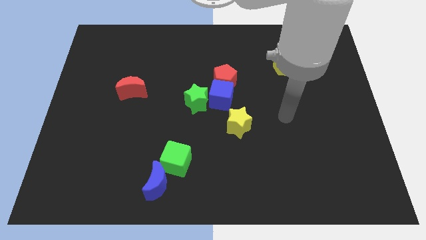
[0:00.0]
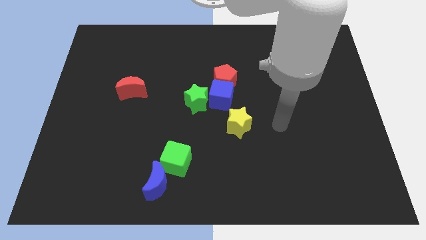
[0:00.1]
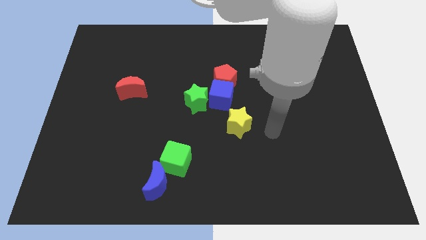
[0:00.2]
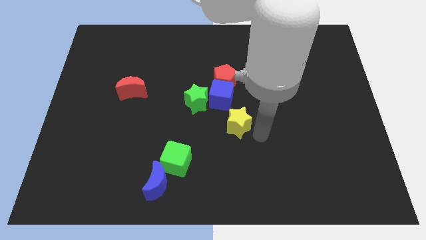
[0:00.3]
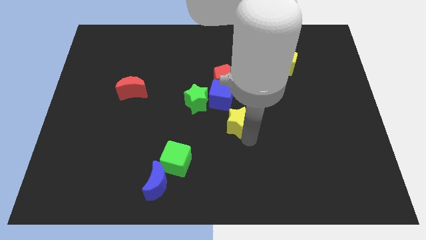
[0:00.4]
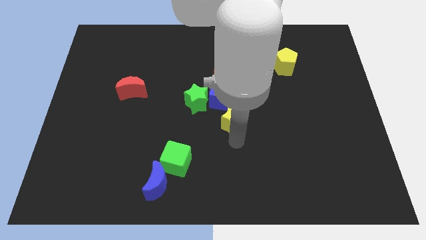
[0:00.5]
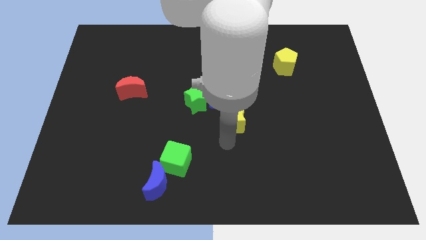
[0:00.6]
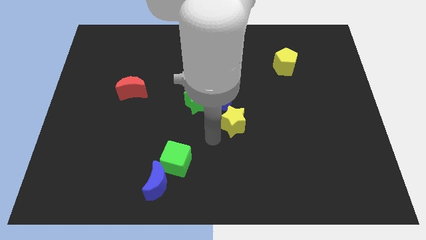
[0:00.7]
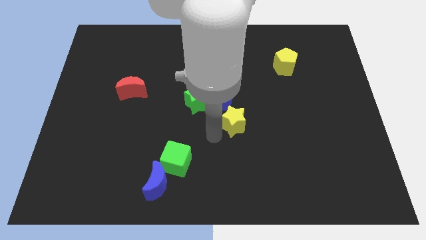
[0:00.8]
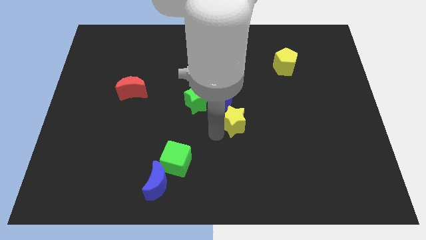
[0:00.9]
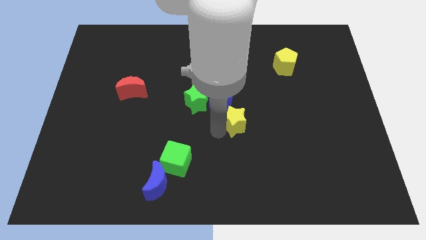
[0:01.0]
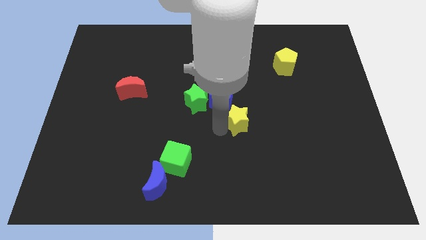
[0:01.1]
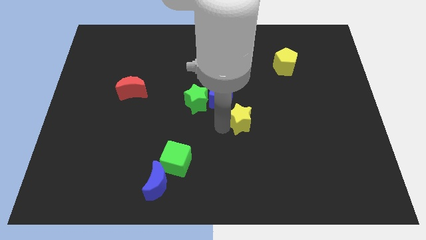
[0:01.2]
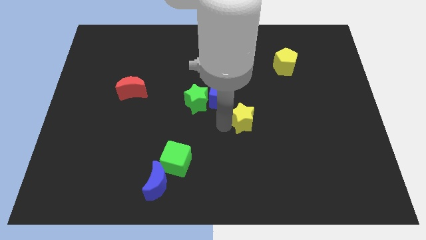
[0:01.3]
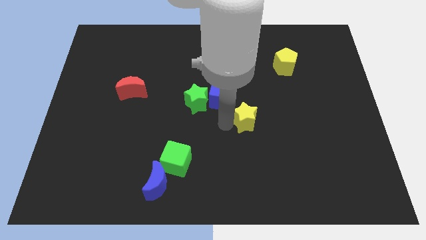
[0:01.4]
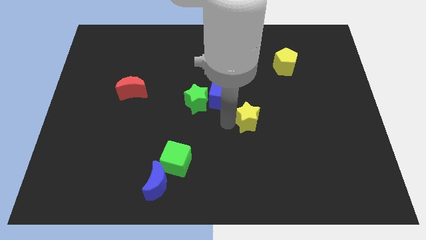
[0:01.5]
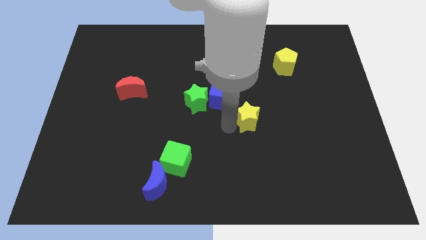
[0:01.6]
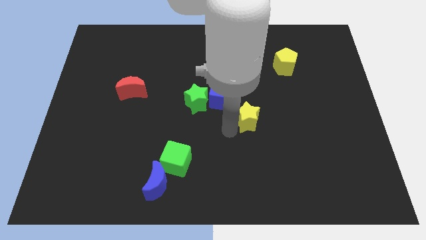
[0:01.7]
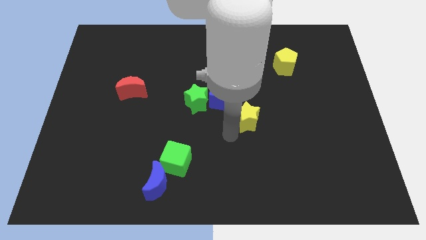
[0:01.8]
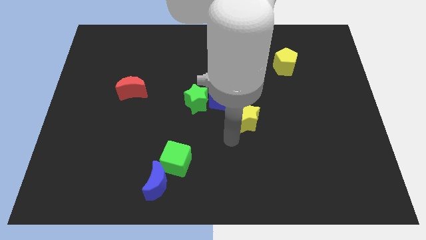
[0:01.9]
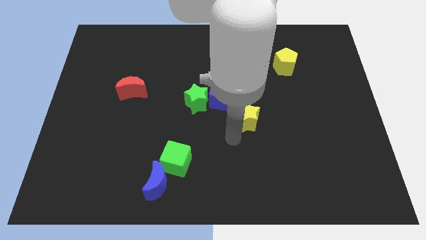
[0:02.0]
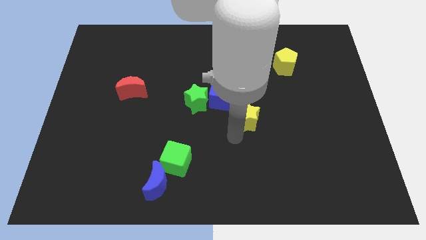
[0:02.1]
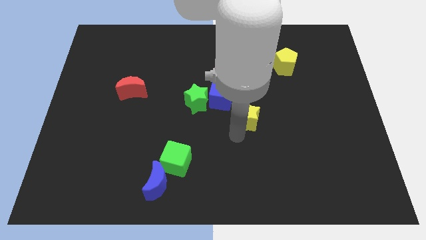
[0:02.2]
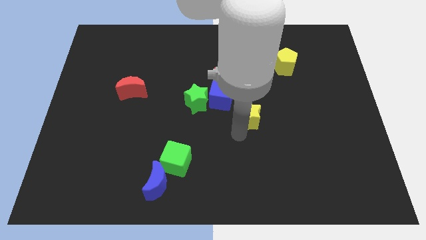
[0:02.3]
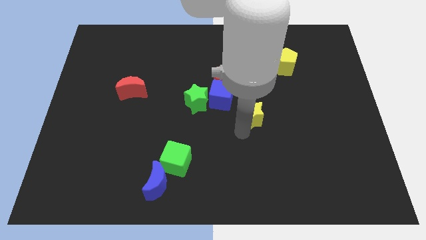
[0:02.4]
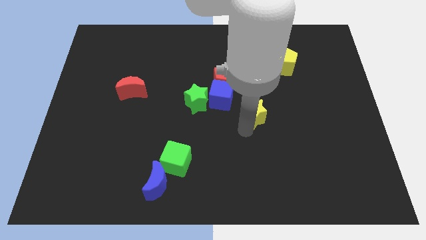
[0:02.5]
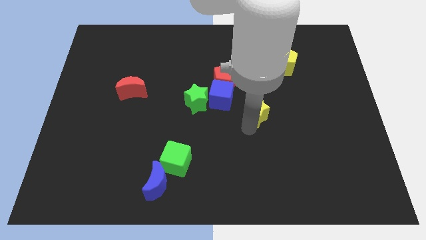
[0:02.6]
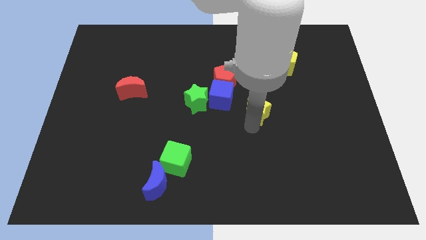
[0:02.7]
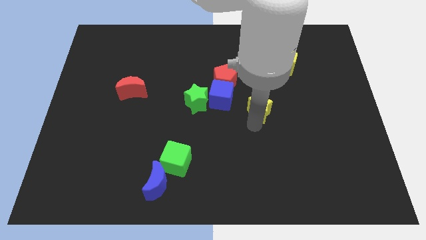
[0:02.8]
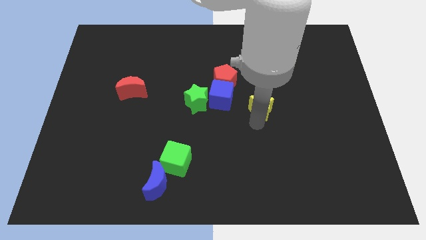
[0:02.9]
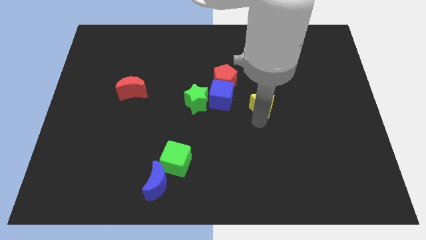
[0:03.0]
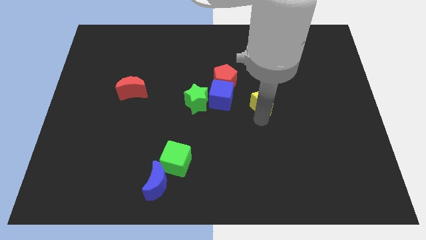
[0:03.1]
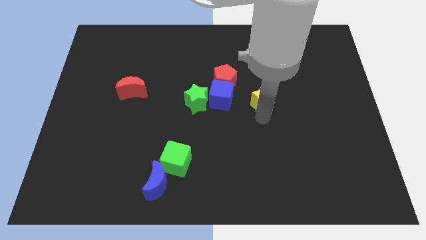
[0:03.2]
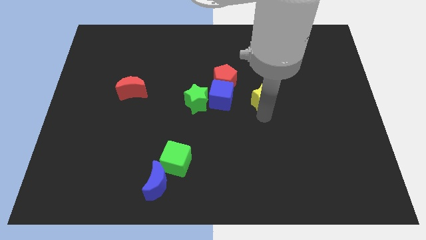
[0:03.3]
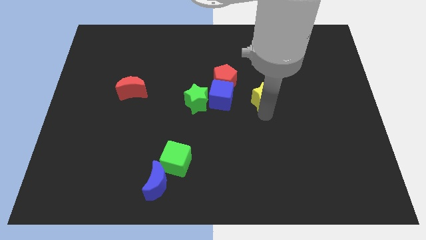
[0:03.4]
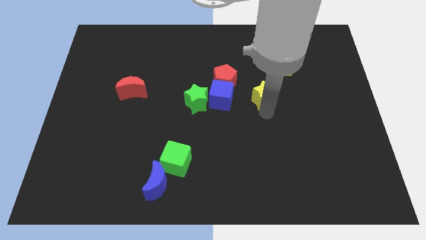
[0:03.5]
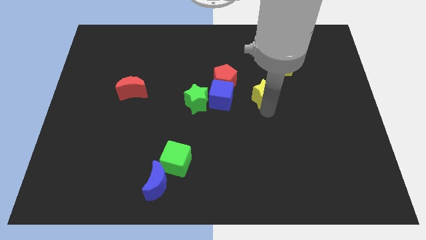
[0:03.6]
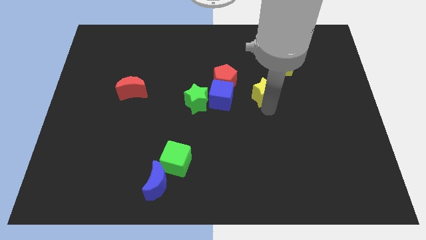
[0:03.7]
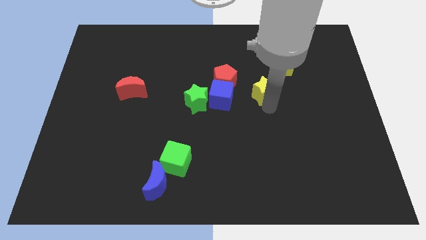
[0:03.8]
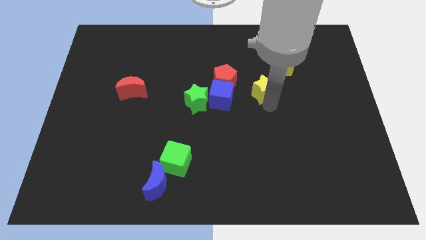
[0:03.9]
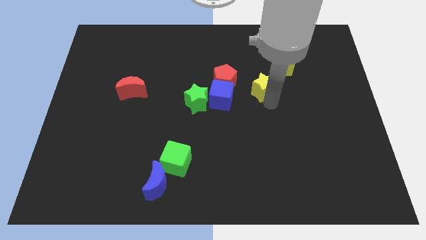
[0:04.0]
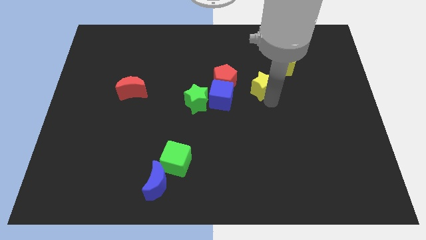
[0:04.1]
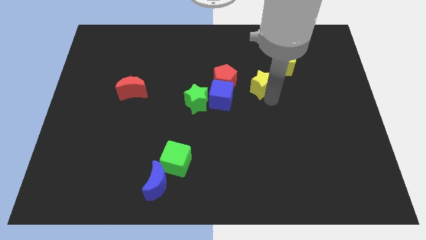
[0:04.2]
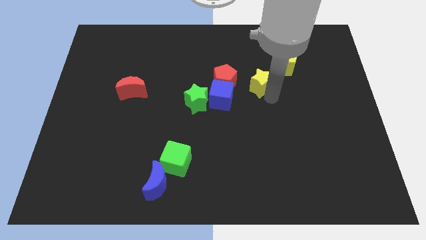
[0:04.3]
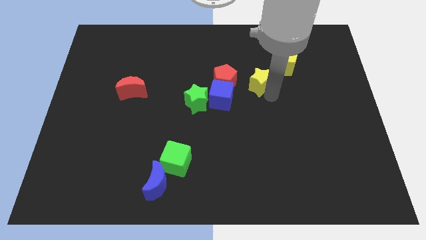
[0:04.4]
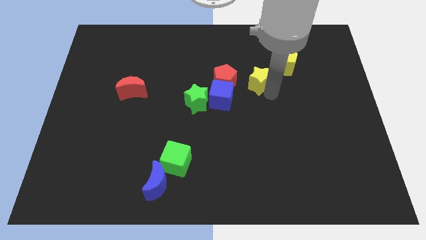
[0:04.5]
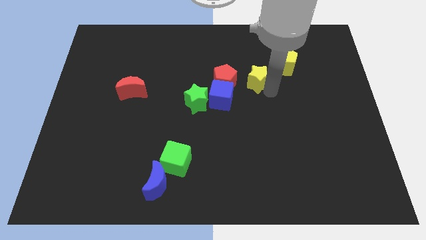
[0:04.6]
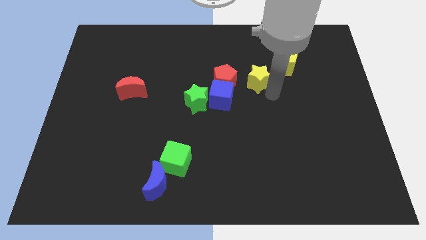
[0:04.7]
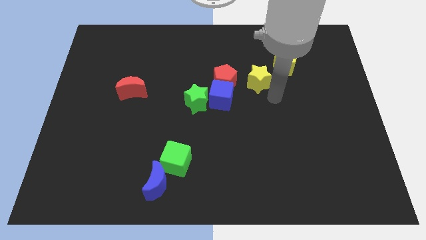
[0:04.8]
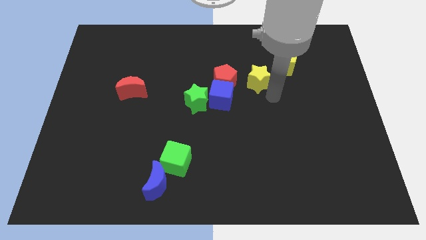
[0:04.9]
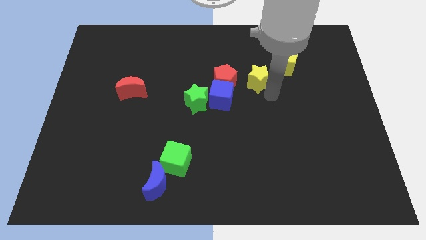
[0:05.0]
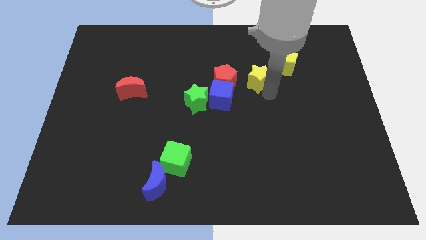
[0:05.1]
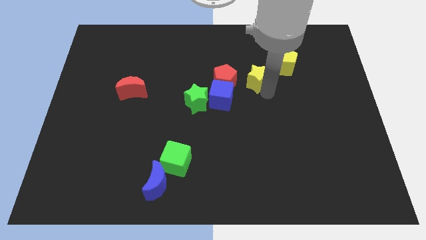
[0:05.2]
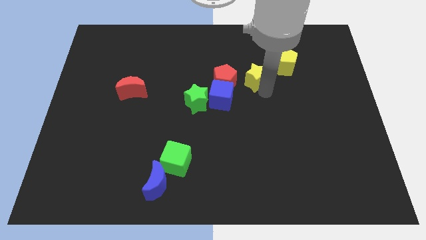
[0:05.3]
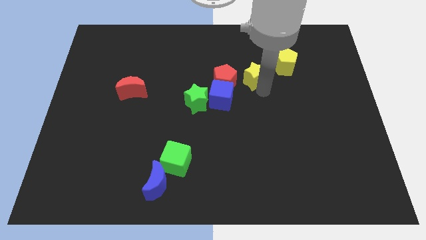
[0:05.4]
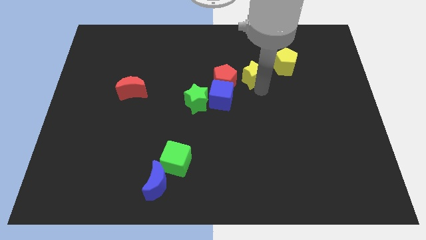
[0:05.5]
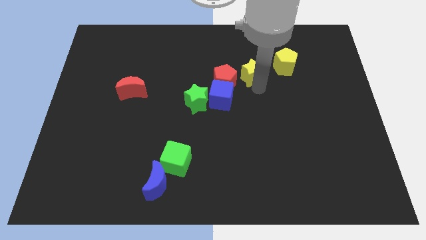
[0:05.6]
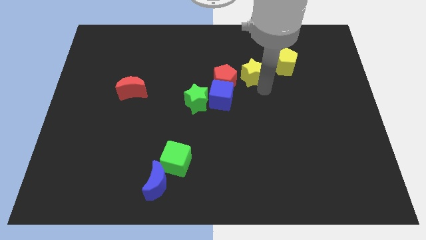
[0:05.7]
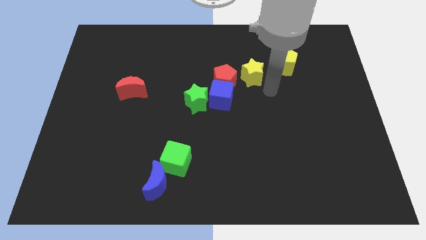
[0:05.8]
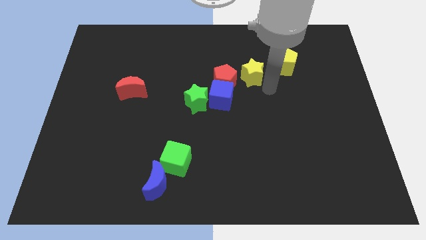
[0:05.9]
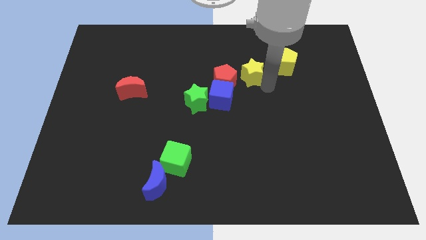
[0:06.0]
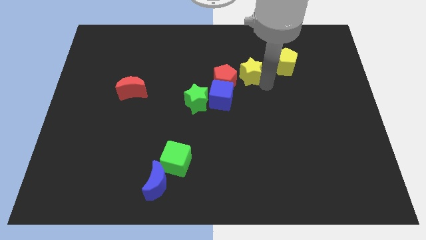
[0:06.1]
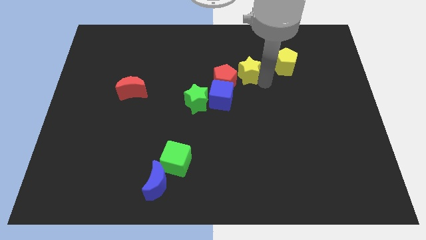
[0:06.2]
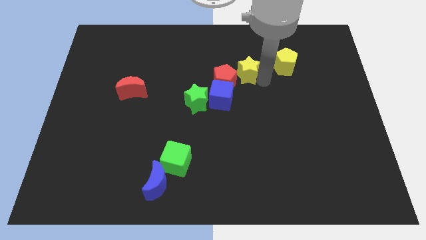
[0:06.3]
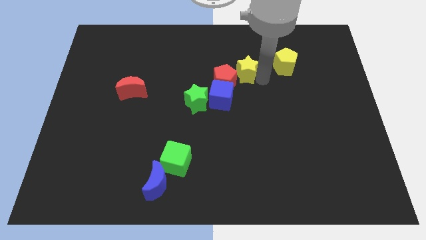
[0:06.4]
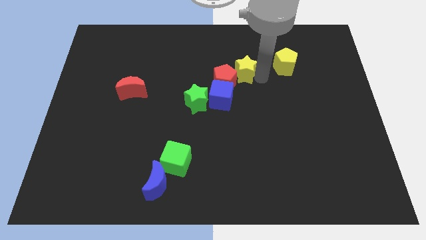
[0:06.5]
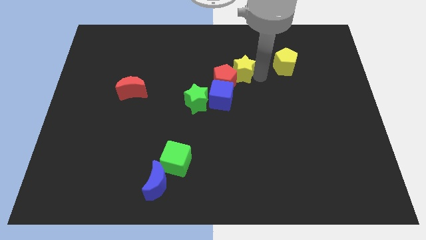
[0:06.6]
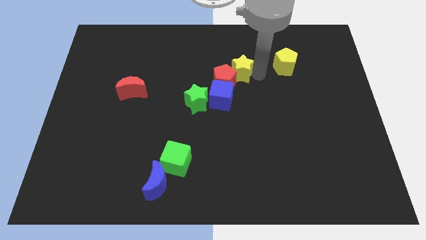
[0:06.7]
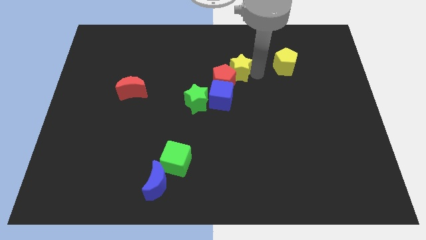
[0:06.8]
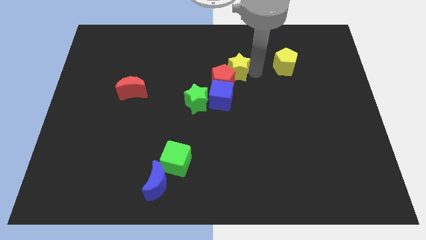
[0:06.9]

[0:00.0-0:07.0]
push the yellow star to the top side of the blue cube
